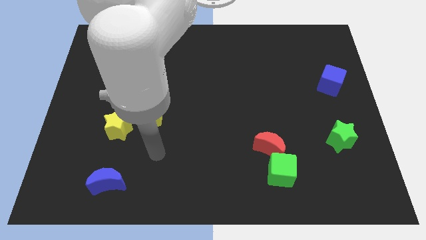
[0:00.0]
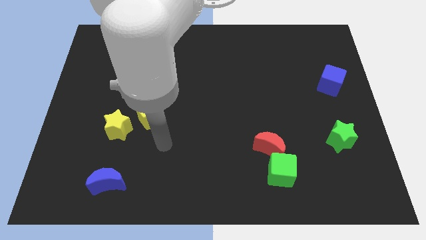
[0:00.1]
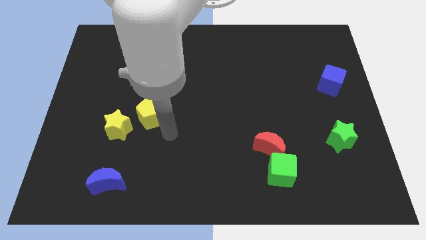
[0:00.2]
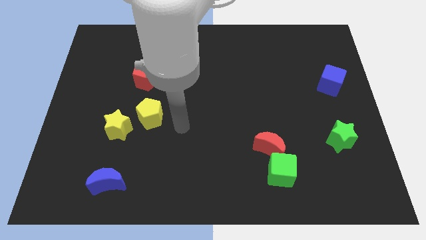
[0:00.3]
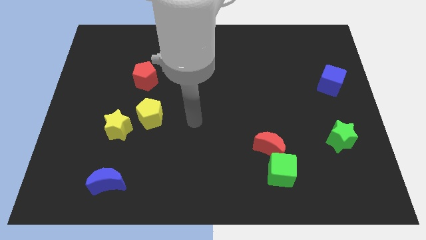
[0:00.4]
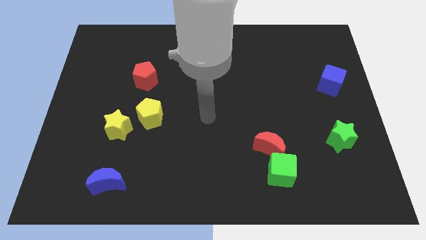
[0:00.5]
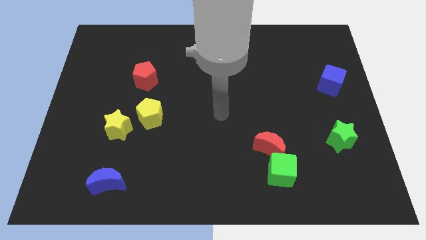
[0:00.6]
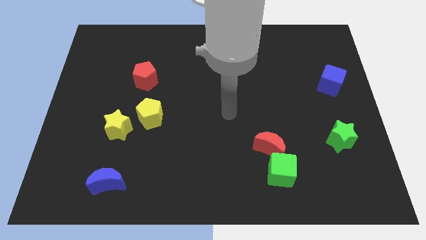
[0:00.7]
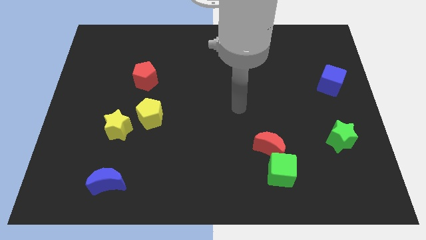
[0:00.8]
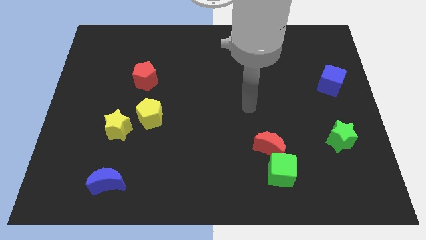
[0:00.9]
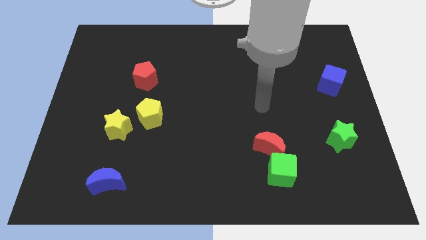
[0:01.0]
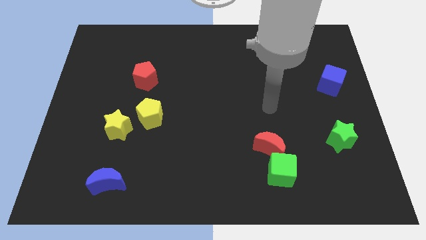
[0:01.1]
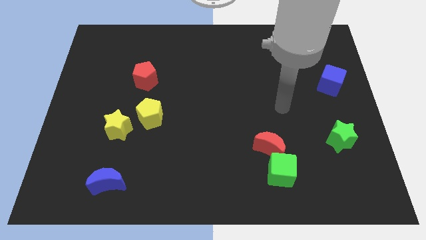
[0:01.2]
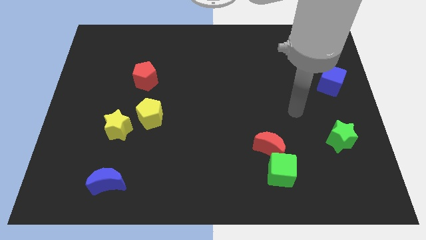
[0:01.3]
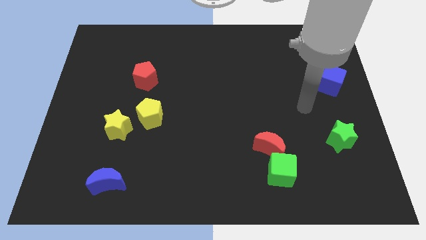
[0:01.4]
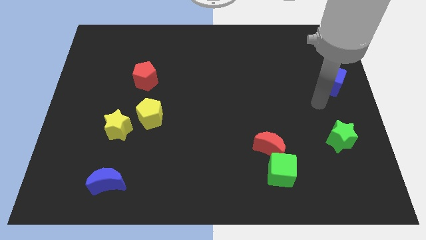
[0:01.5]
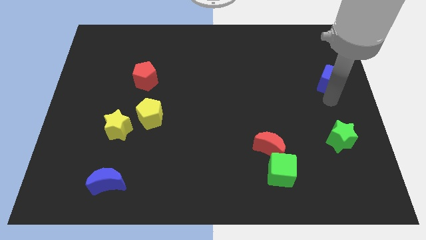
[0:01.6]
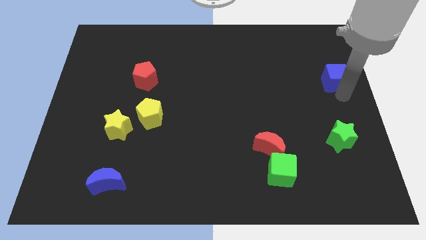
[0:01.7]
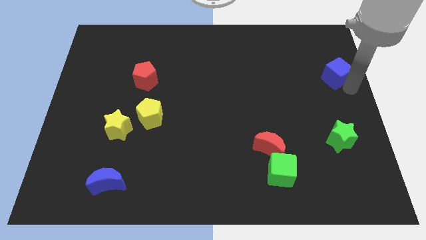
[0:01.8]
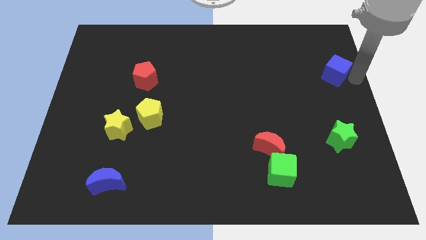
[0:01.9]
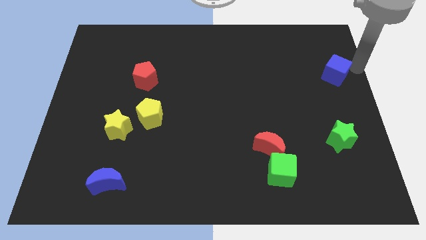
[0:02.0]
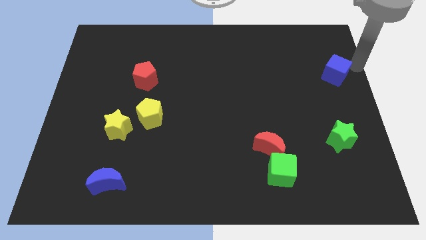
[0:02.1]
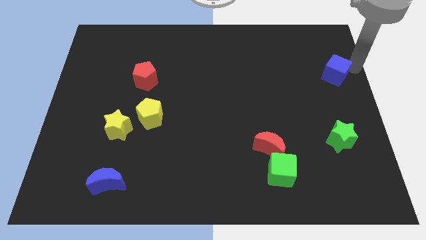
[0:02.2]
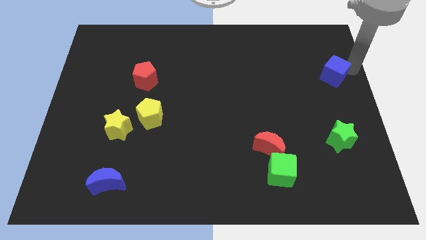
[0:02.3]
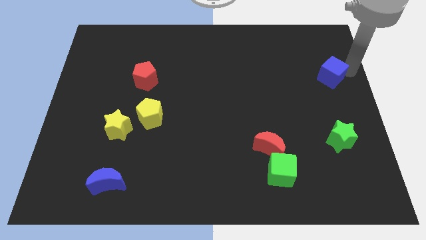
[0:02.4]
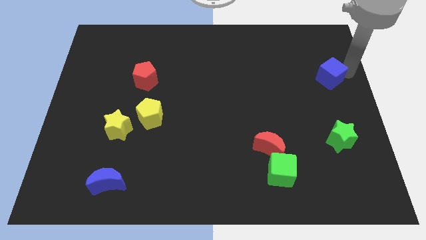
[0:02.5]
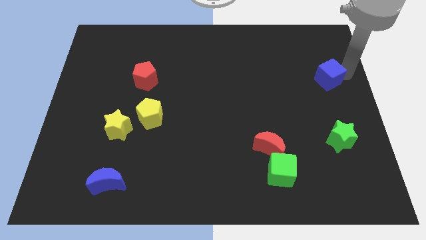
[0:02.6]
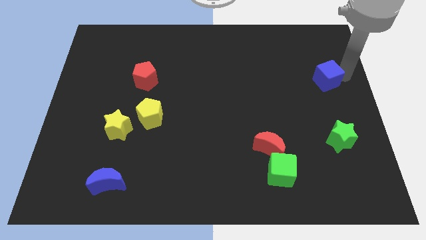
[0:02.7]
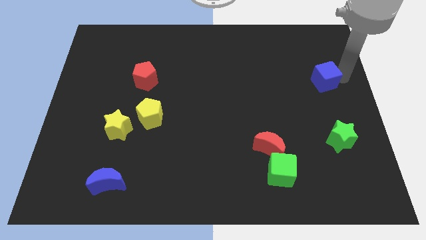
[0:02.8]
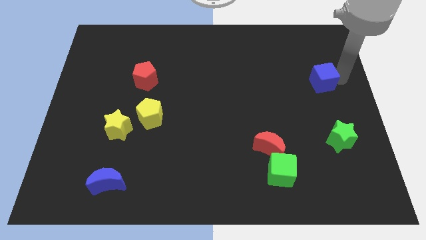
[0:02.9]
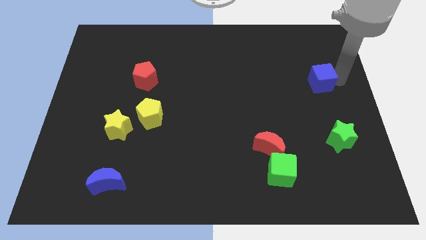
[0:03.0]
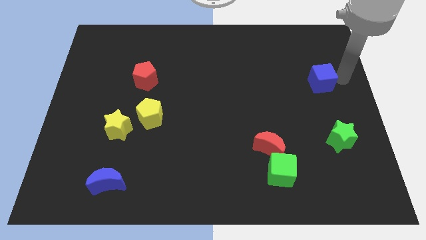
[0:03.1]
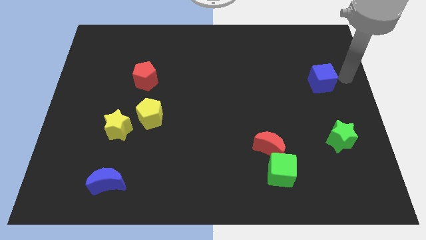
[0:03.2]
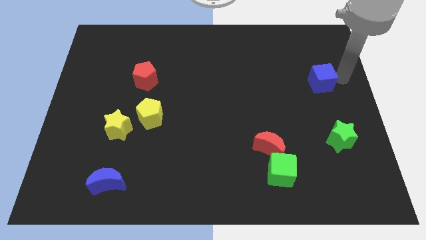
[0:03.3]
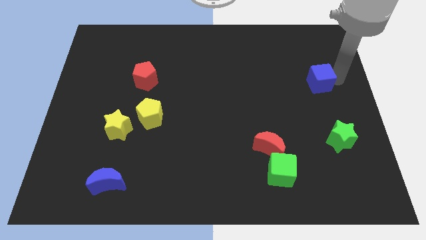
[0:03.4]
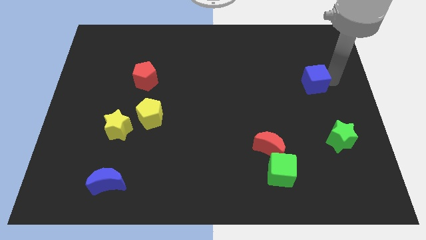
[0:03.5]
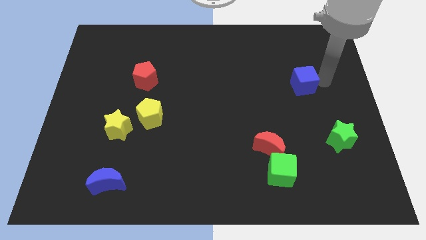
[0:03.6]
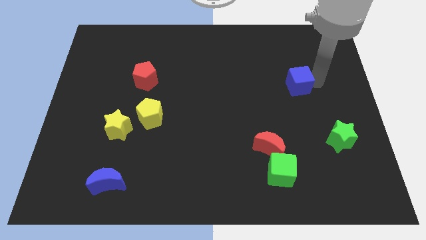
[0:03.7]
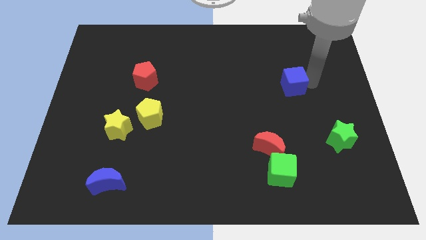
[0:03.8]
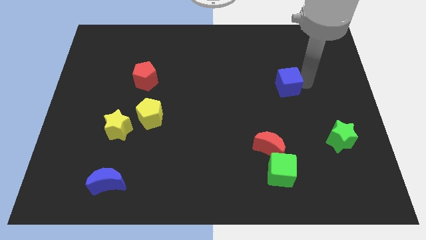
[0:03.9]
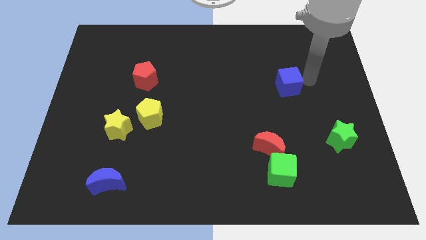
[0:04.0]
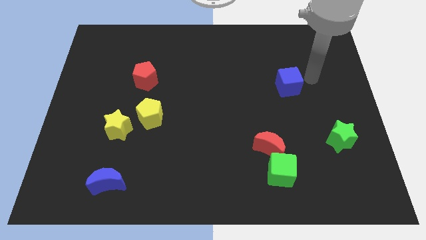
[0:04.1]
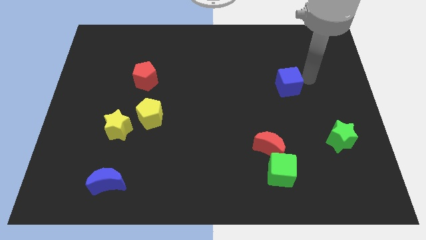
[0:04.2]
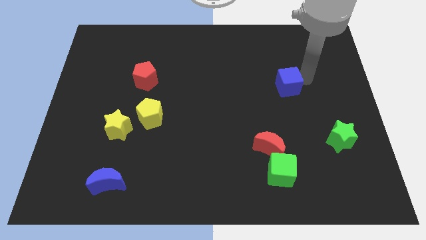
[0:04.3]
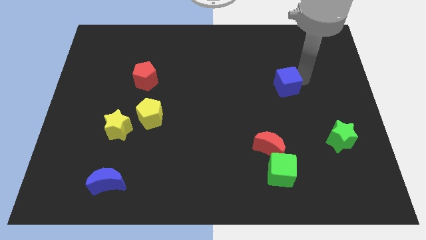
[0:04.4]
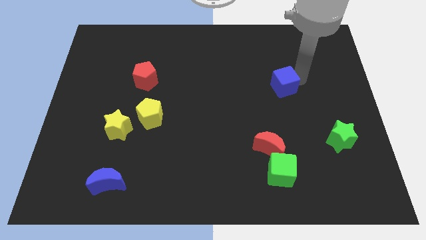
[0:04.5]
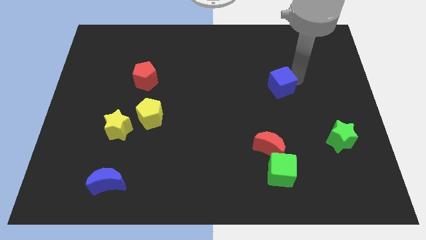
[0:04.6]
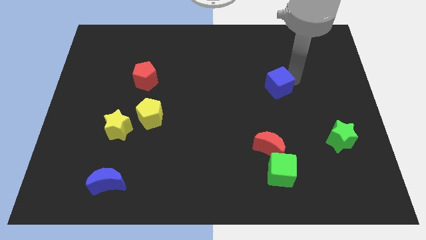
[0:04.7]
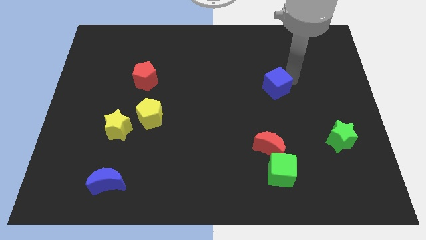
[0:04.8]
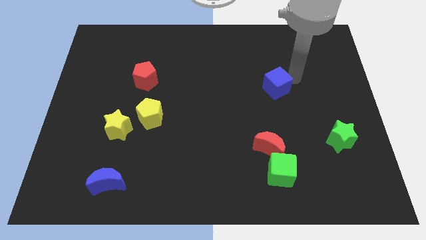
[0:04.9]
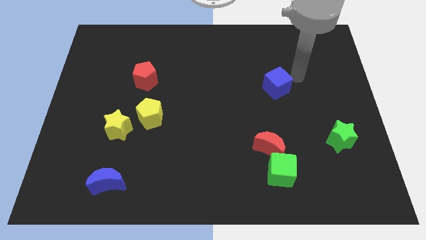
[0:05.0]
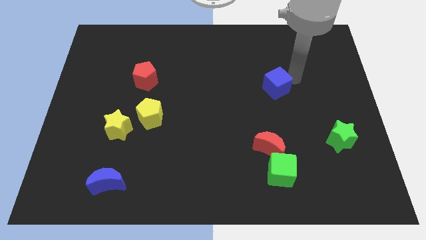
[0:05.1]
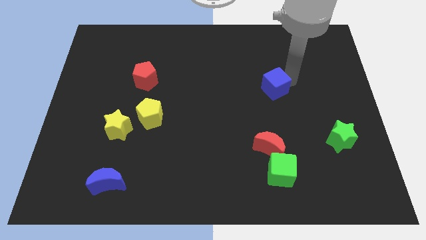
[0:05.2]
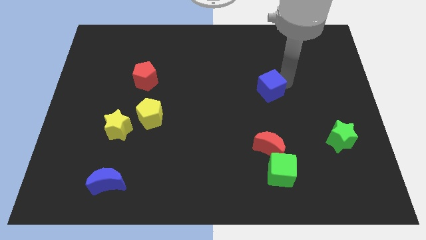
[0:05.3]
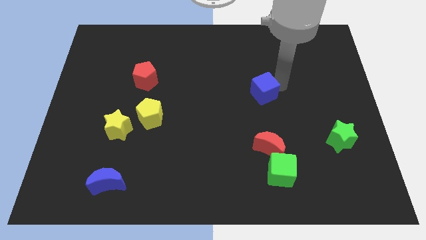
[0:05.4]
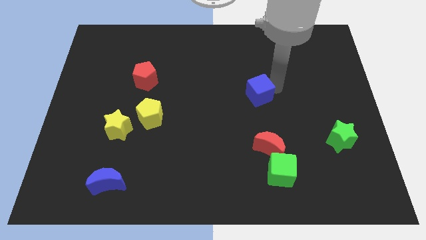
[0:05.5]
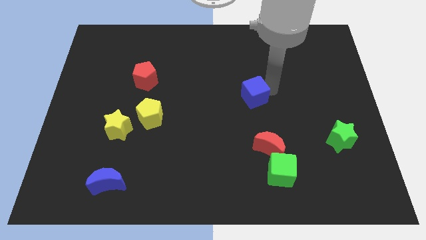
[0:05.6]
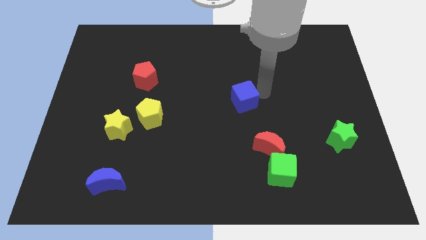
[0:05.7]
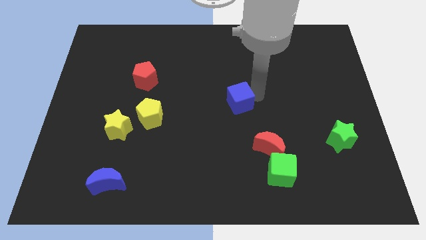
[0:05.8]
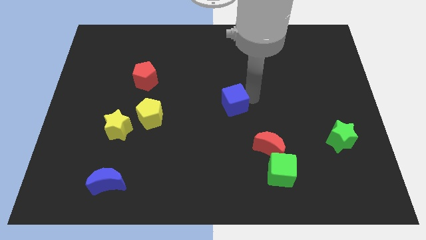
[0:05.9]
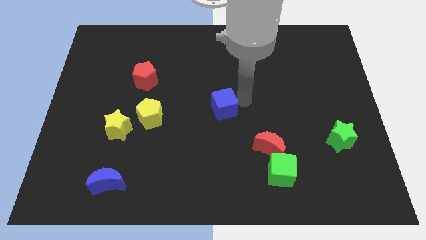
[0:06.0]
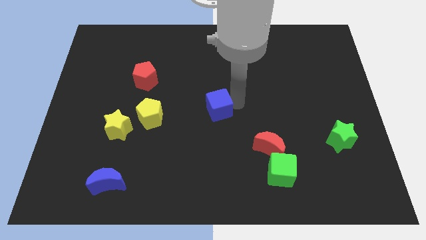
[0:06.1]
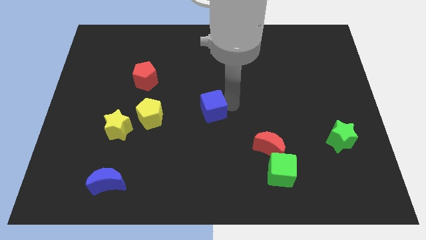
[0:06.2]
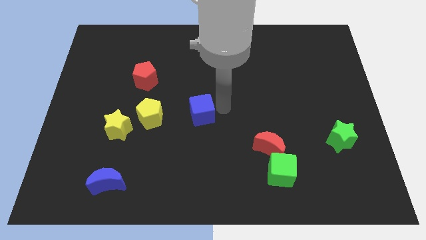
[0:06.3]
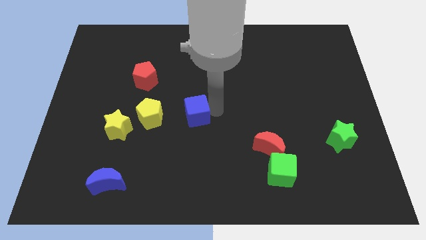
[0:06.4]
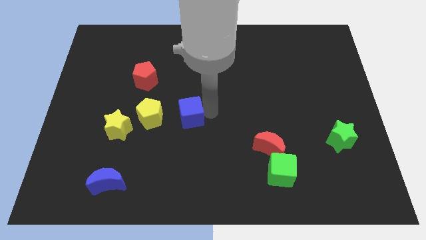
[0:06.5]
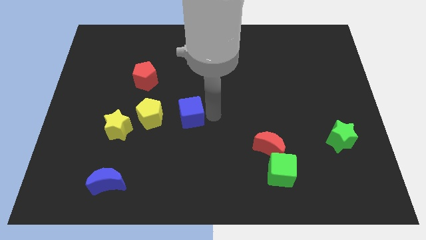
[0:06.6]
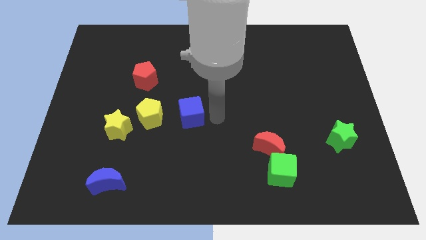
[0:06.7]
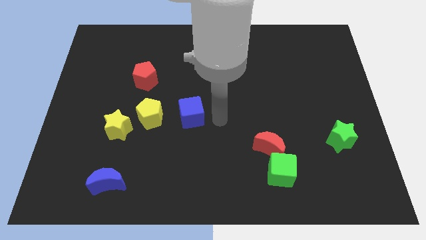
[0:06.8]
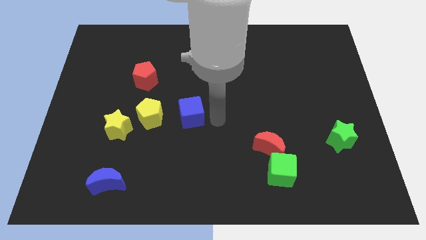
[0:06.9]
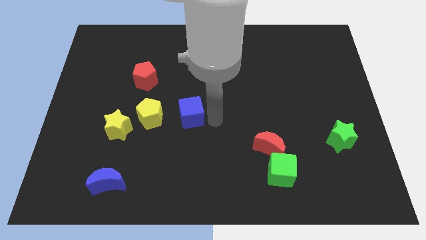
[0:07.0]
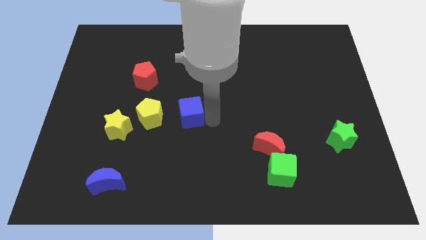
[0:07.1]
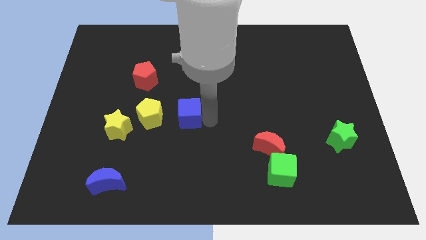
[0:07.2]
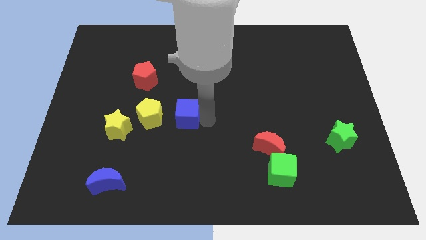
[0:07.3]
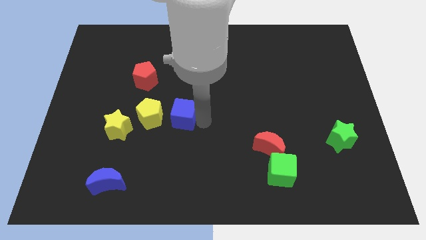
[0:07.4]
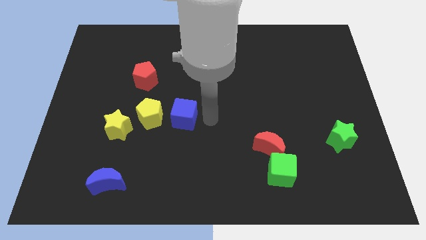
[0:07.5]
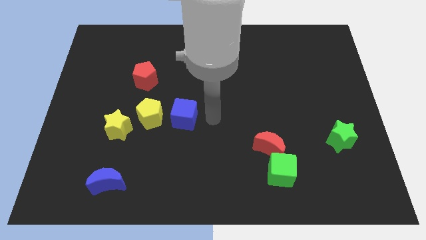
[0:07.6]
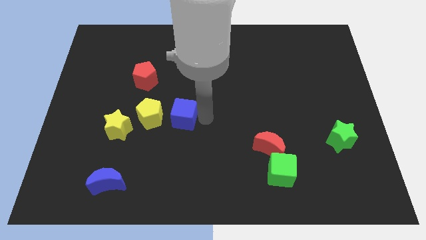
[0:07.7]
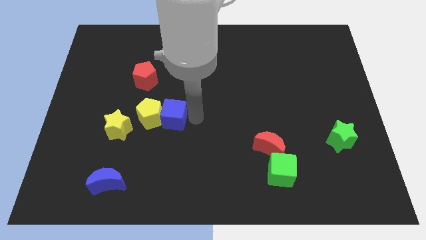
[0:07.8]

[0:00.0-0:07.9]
slide the blue cube next to the yellow pentagon
